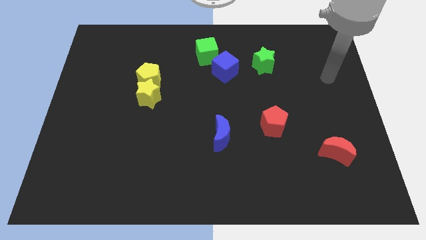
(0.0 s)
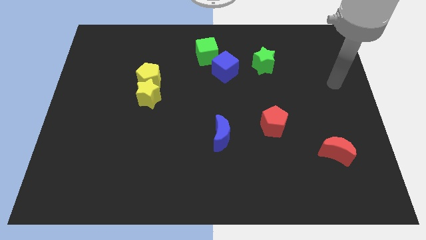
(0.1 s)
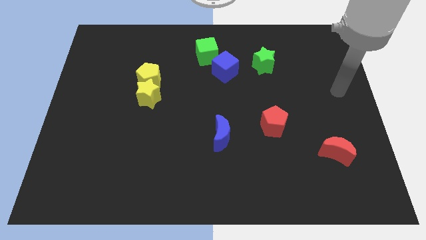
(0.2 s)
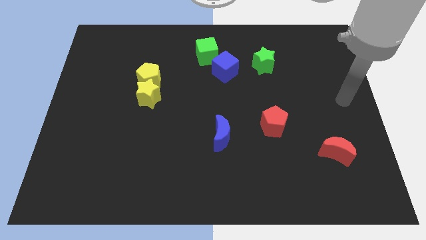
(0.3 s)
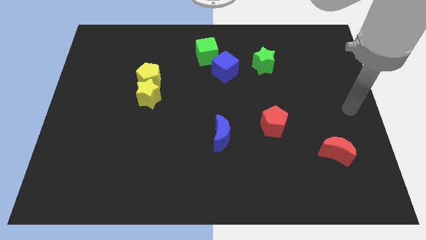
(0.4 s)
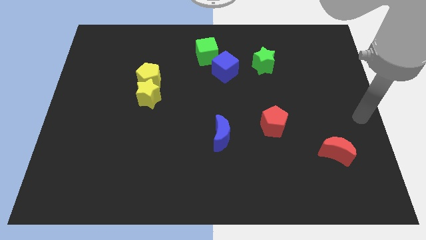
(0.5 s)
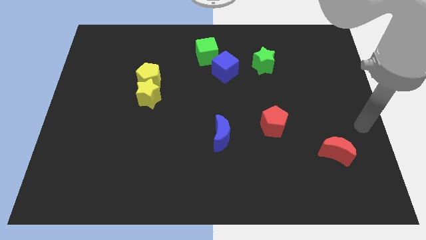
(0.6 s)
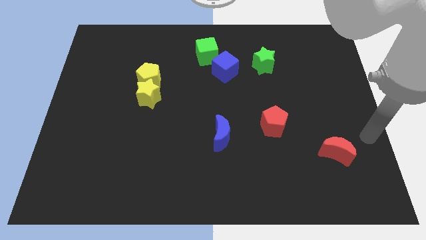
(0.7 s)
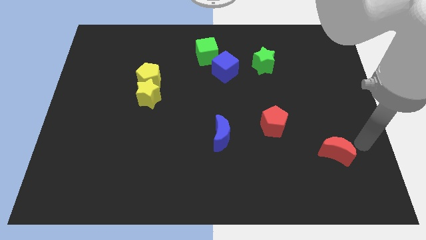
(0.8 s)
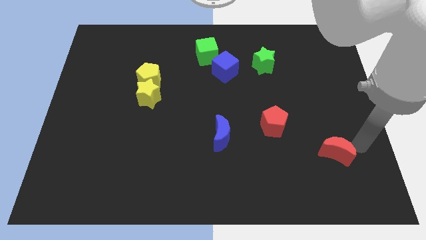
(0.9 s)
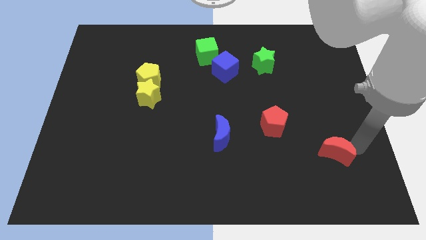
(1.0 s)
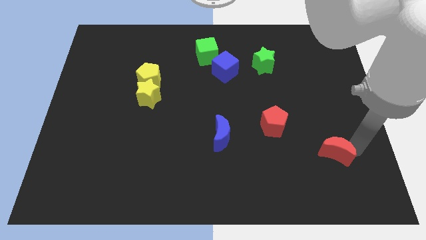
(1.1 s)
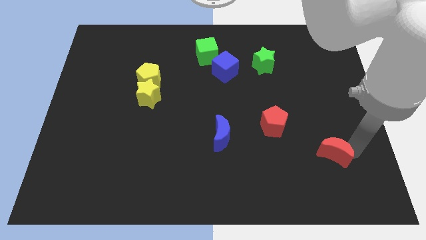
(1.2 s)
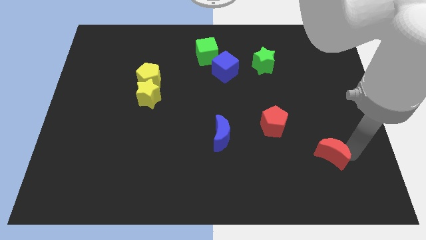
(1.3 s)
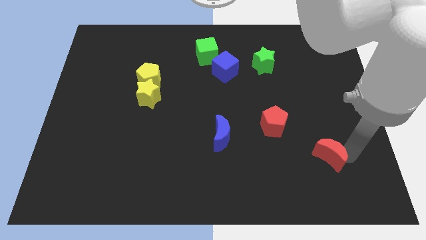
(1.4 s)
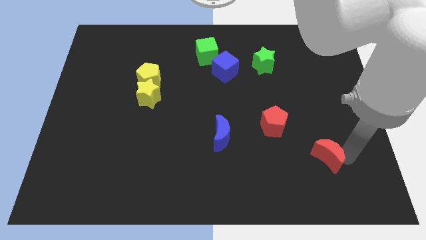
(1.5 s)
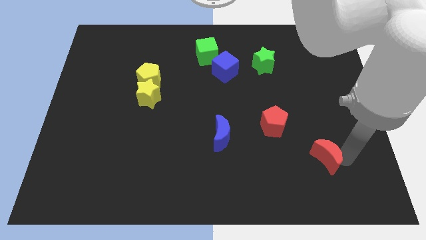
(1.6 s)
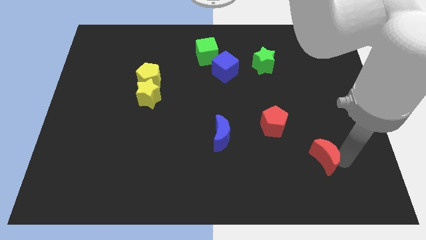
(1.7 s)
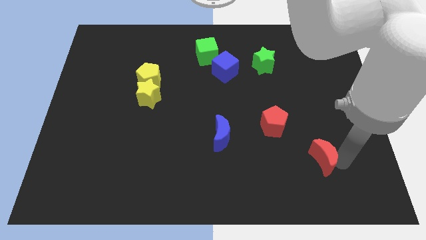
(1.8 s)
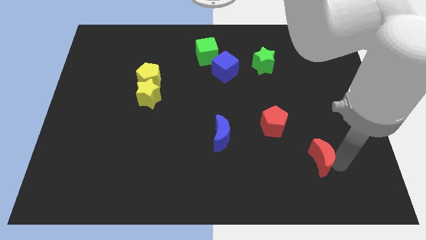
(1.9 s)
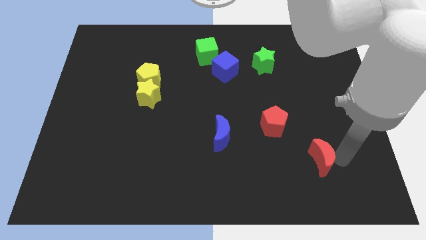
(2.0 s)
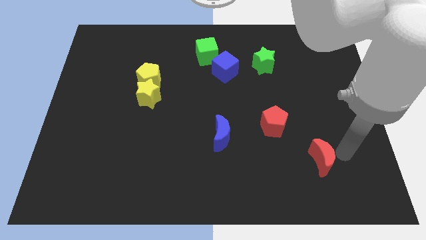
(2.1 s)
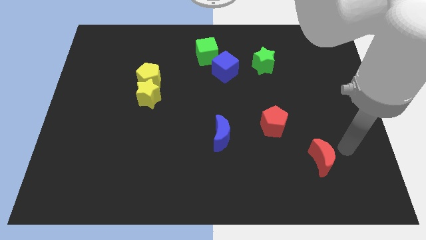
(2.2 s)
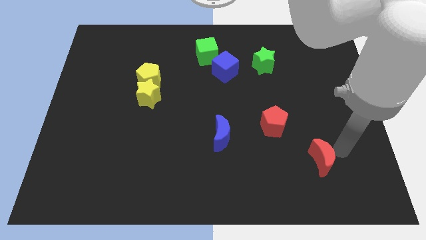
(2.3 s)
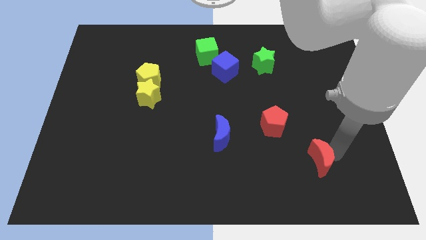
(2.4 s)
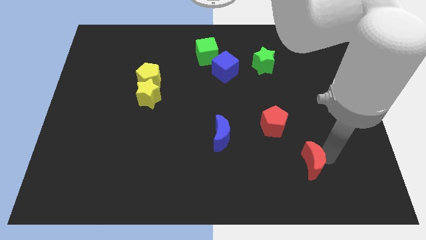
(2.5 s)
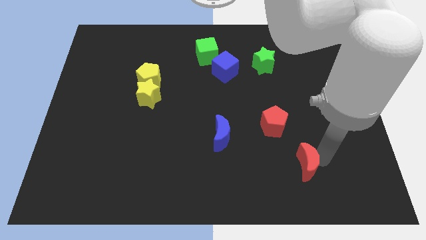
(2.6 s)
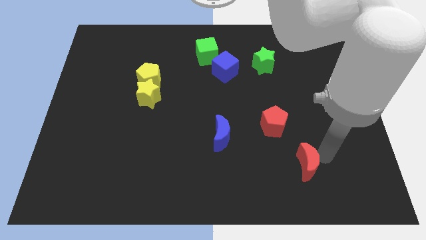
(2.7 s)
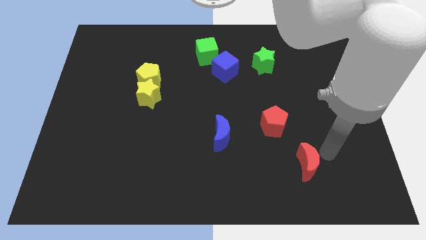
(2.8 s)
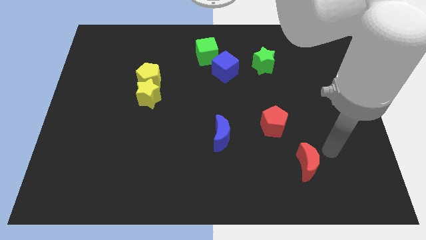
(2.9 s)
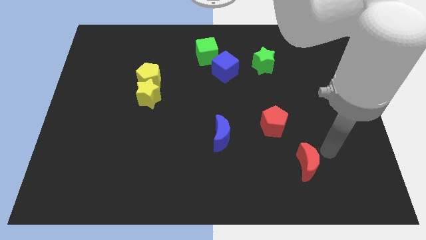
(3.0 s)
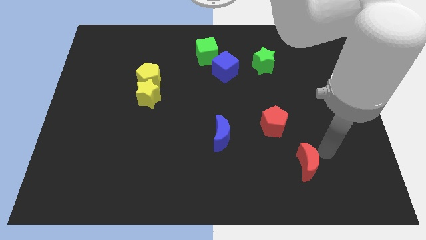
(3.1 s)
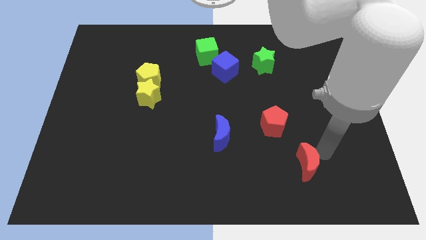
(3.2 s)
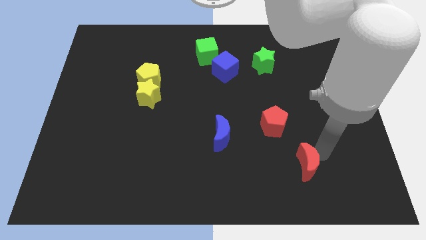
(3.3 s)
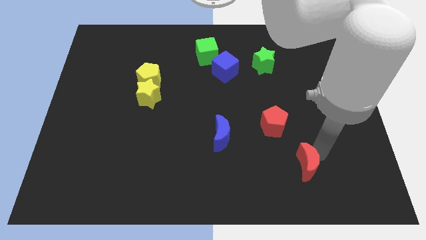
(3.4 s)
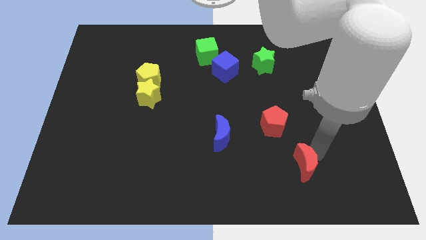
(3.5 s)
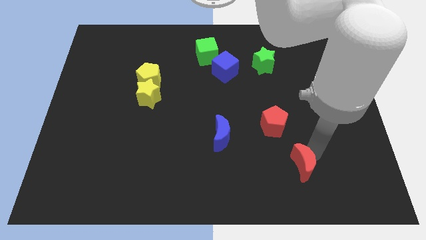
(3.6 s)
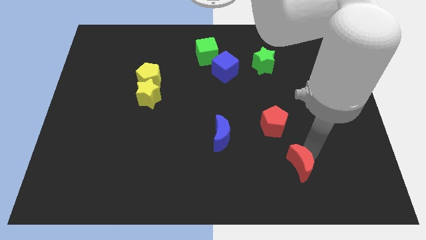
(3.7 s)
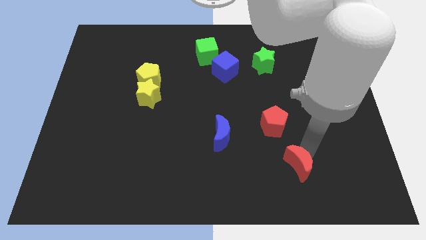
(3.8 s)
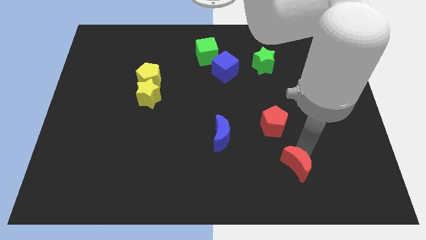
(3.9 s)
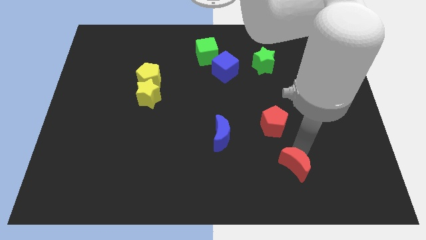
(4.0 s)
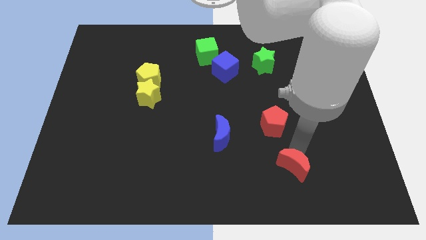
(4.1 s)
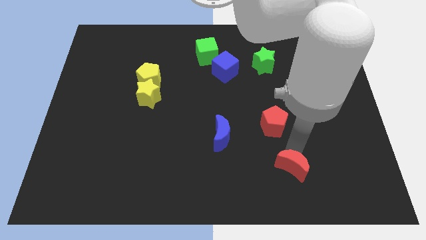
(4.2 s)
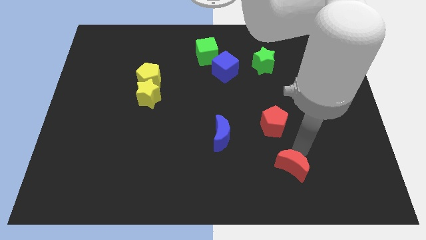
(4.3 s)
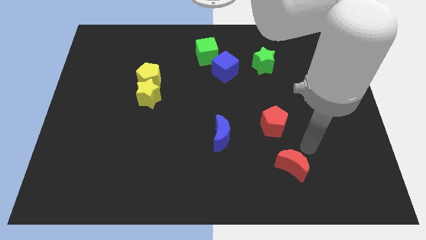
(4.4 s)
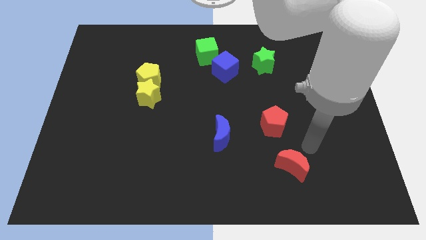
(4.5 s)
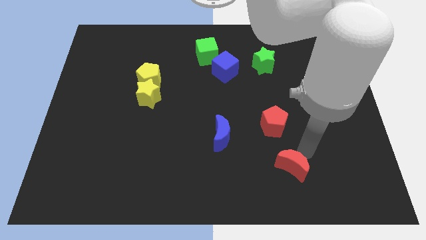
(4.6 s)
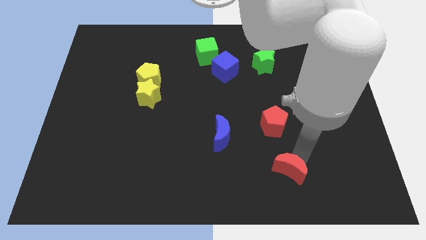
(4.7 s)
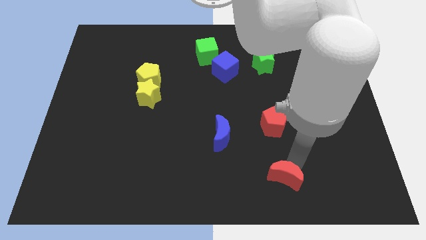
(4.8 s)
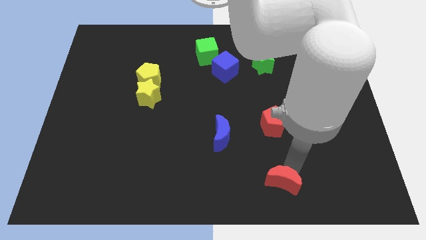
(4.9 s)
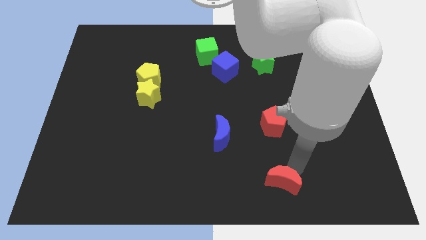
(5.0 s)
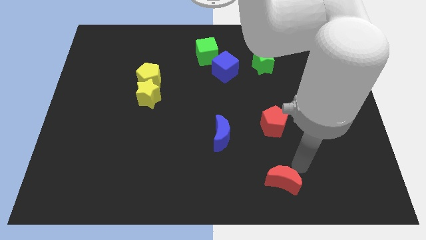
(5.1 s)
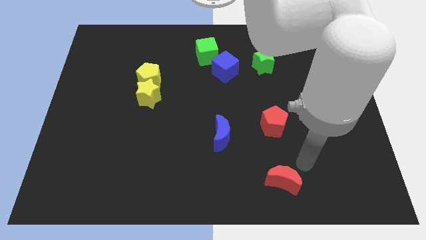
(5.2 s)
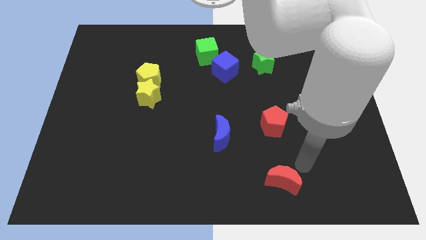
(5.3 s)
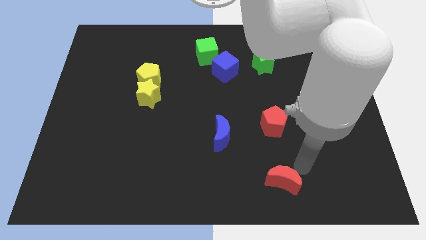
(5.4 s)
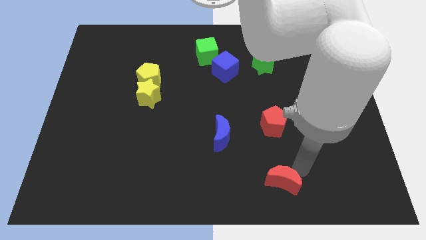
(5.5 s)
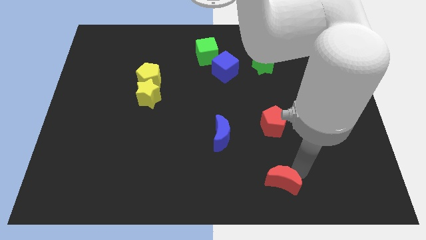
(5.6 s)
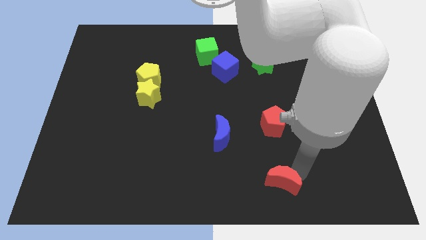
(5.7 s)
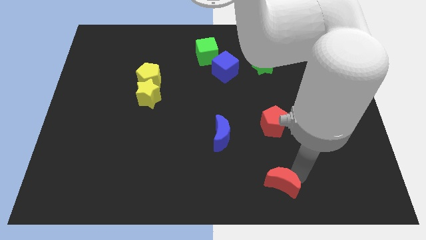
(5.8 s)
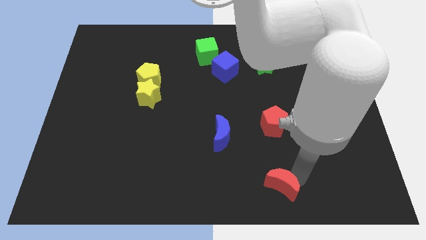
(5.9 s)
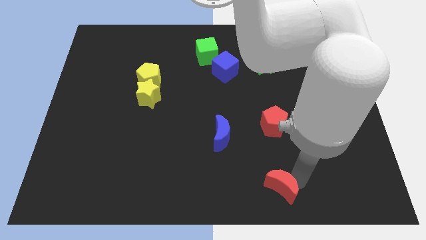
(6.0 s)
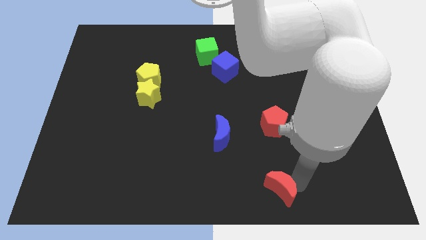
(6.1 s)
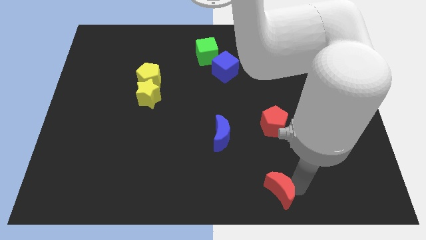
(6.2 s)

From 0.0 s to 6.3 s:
put the red moon to the bottom side
